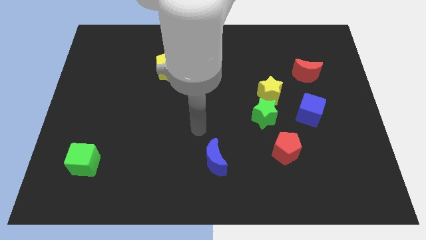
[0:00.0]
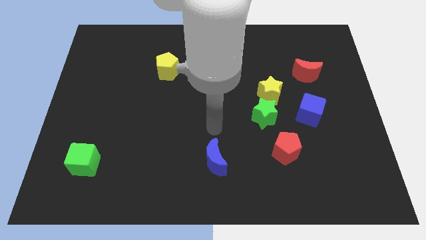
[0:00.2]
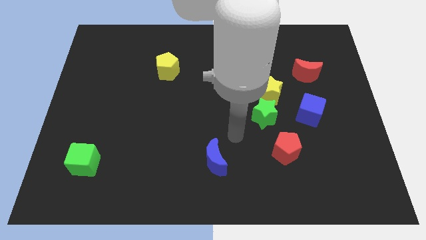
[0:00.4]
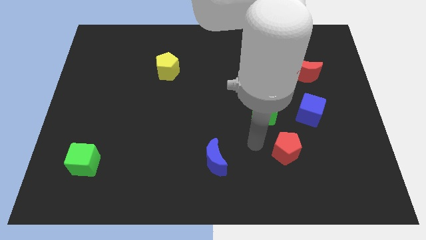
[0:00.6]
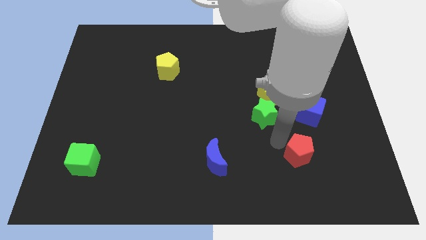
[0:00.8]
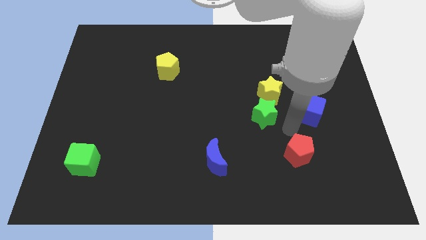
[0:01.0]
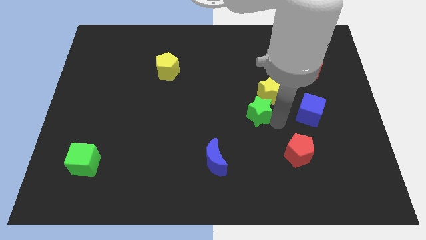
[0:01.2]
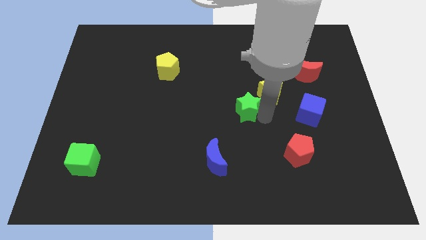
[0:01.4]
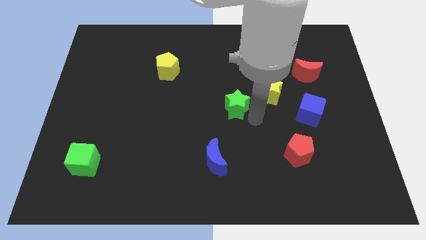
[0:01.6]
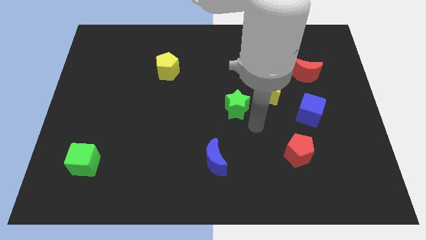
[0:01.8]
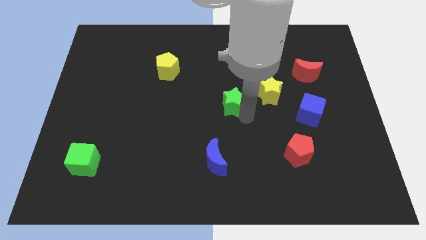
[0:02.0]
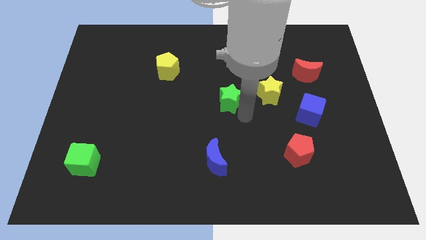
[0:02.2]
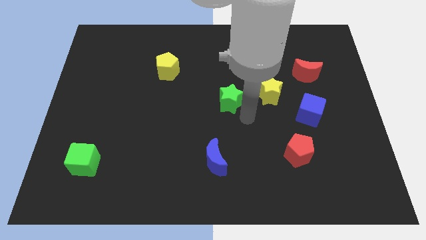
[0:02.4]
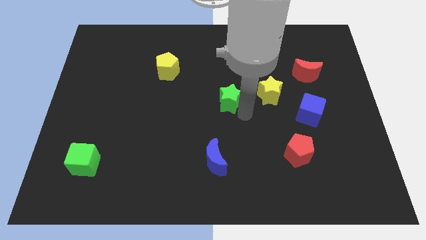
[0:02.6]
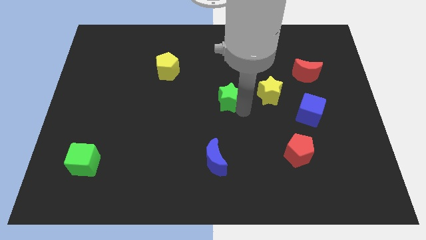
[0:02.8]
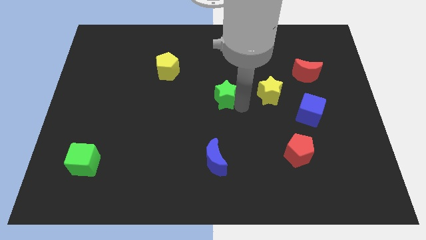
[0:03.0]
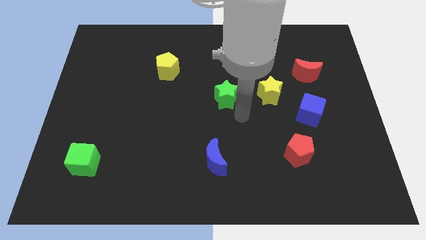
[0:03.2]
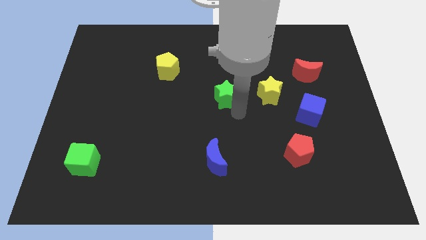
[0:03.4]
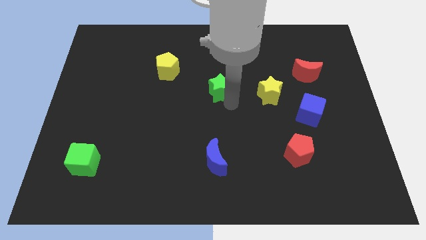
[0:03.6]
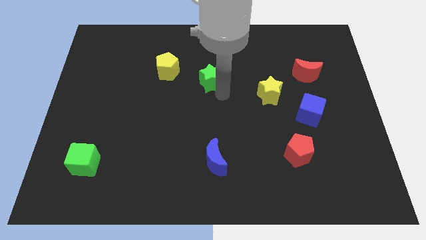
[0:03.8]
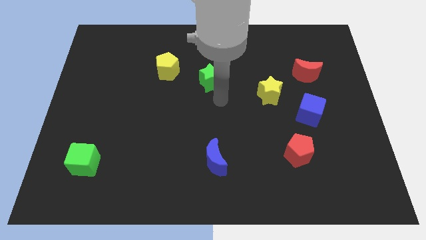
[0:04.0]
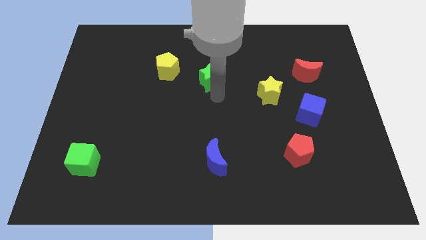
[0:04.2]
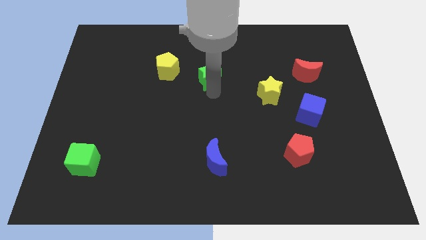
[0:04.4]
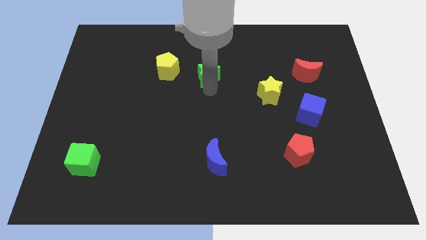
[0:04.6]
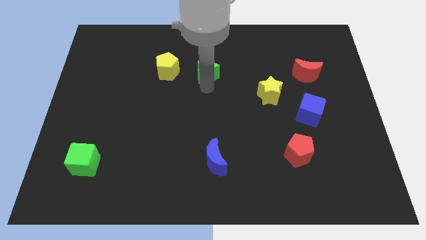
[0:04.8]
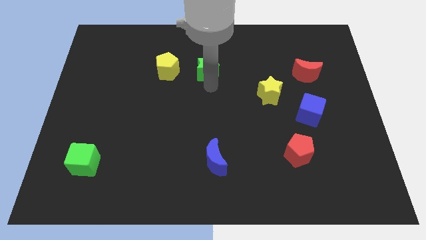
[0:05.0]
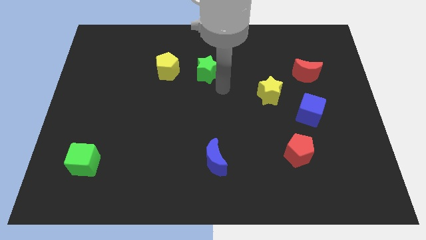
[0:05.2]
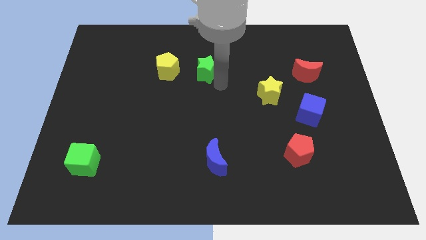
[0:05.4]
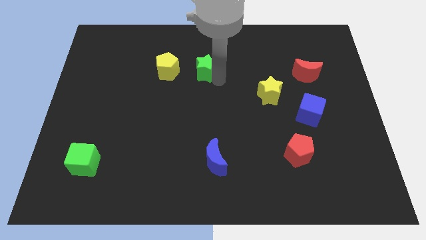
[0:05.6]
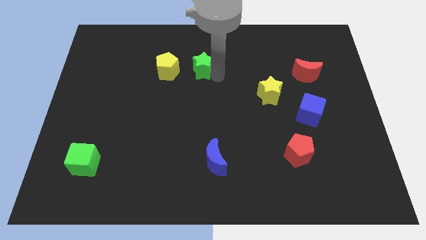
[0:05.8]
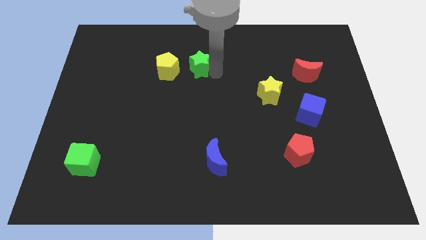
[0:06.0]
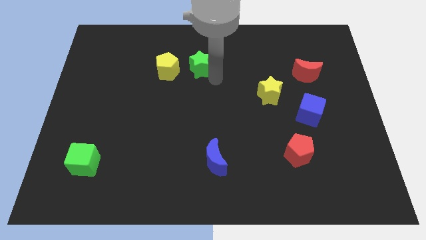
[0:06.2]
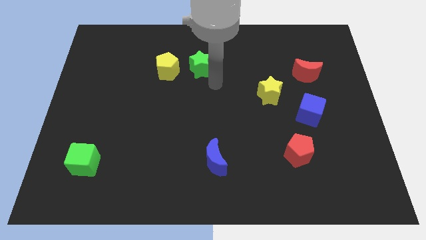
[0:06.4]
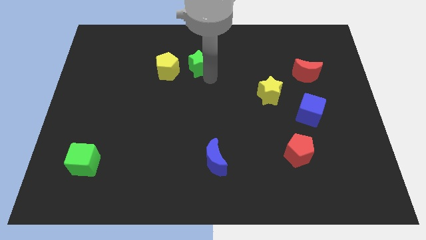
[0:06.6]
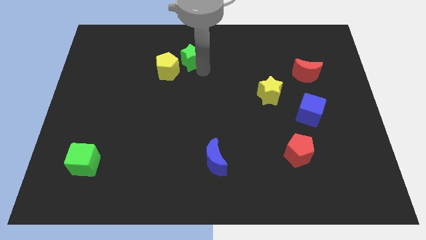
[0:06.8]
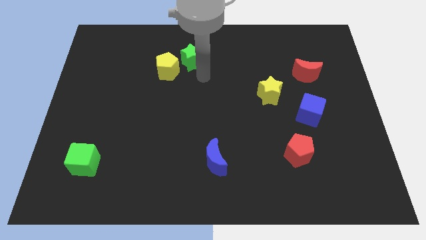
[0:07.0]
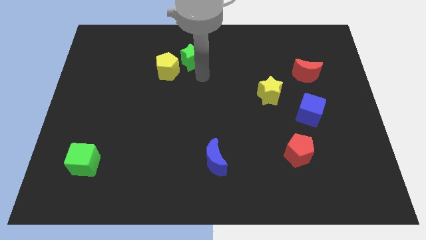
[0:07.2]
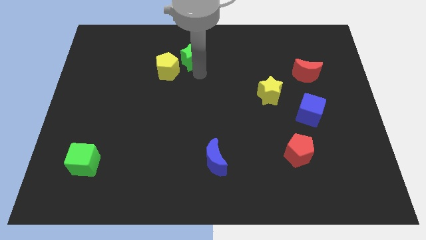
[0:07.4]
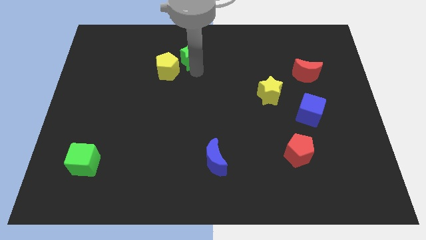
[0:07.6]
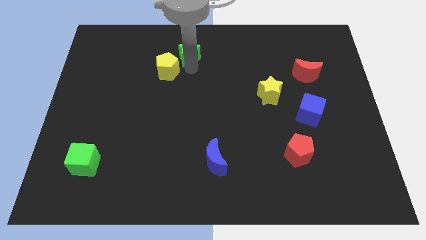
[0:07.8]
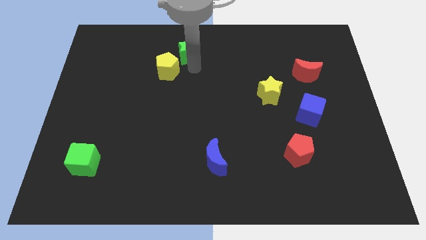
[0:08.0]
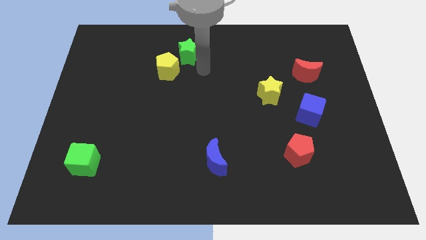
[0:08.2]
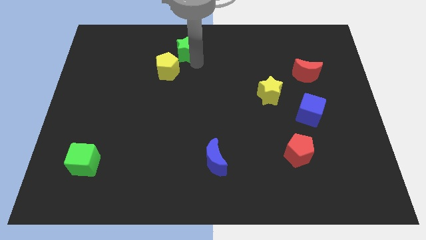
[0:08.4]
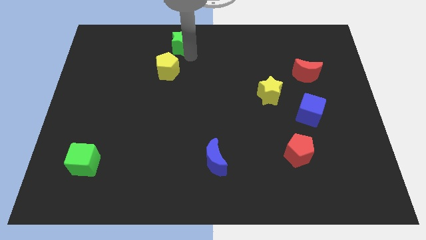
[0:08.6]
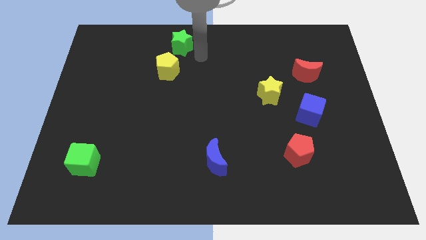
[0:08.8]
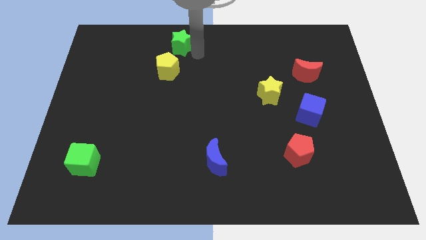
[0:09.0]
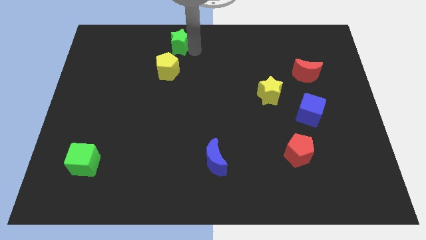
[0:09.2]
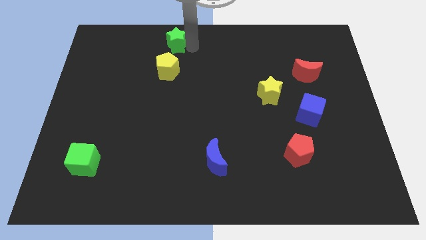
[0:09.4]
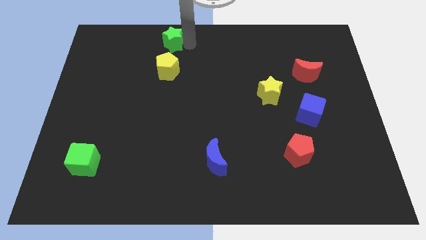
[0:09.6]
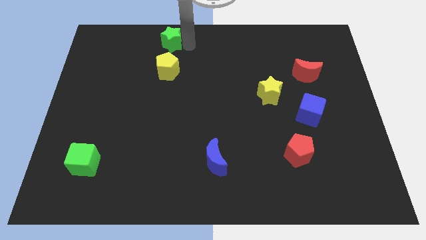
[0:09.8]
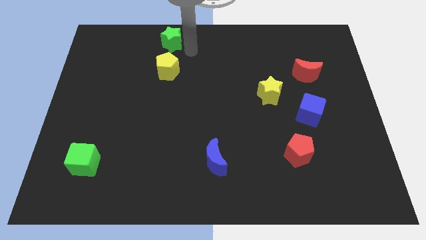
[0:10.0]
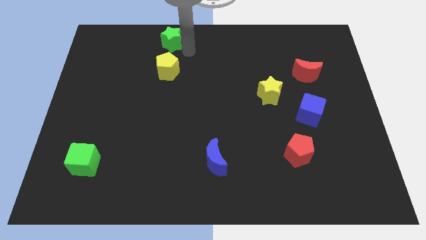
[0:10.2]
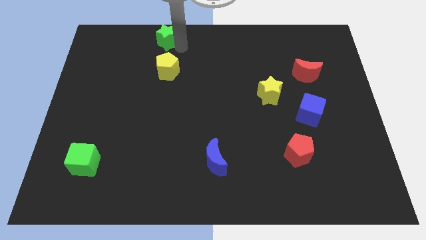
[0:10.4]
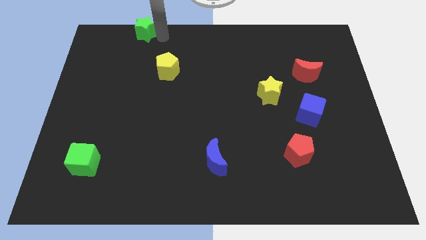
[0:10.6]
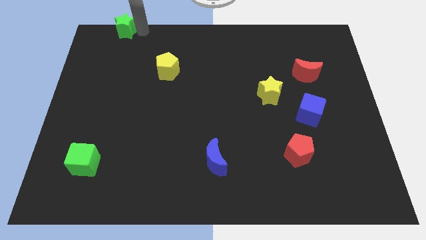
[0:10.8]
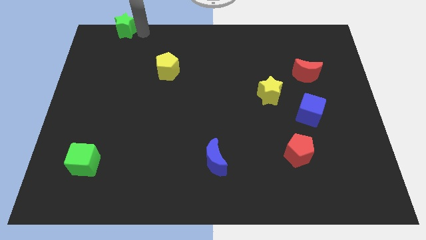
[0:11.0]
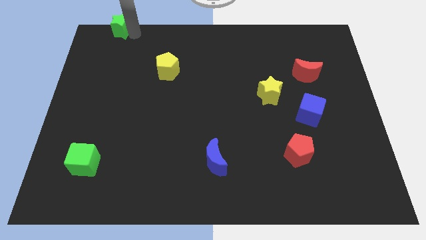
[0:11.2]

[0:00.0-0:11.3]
move the green star to the upper left corner
